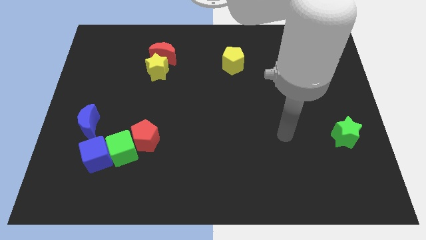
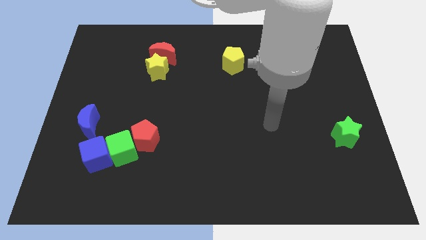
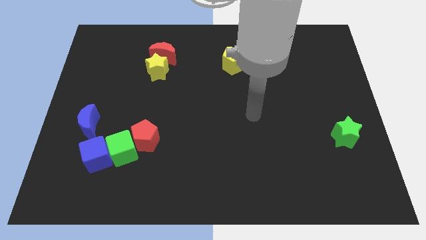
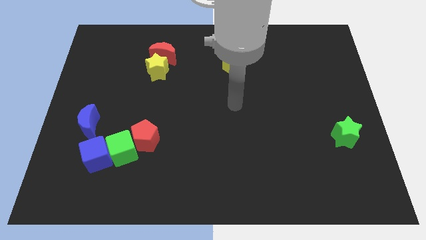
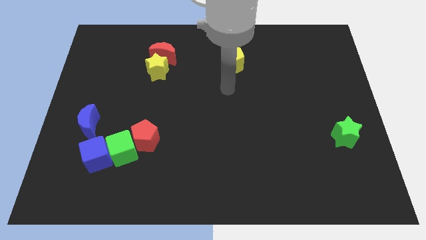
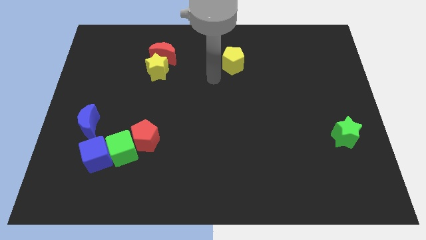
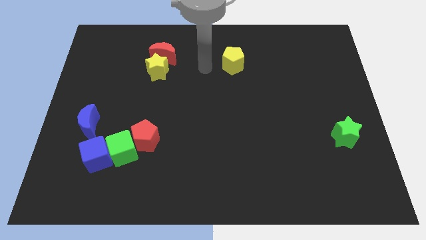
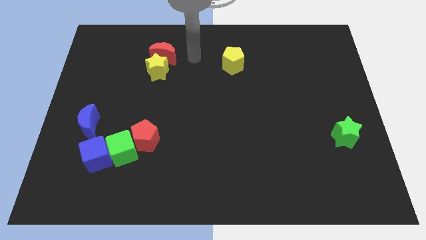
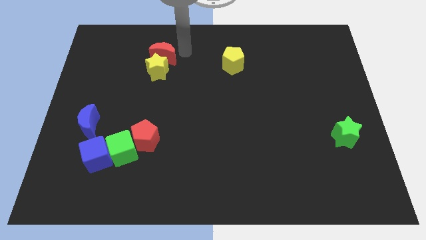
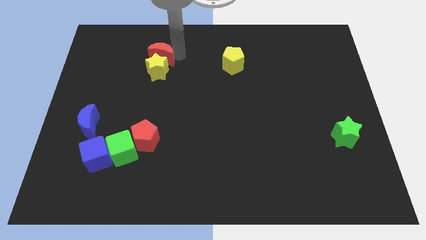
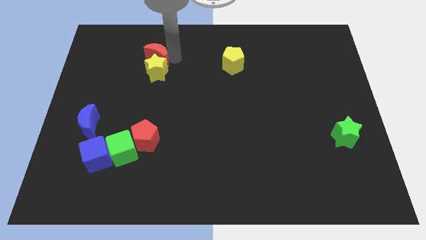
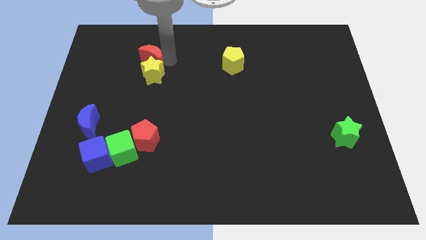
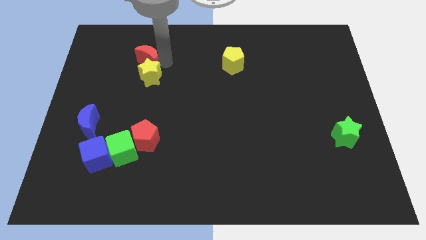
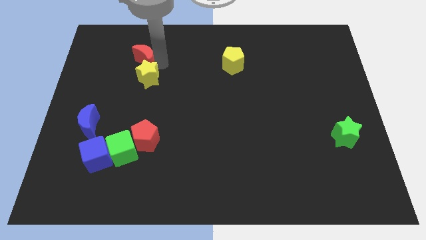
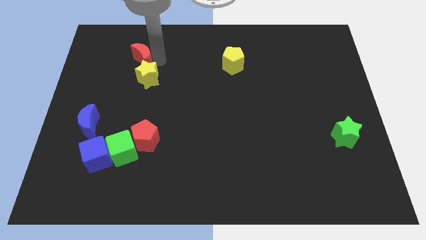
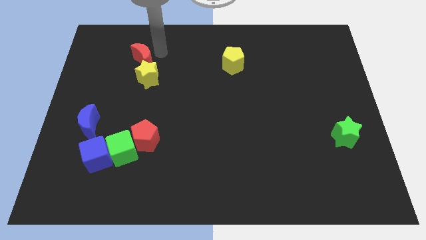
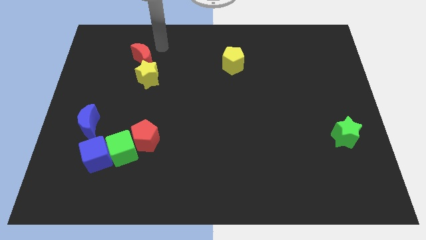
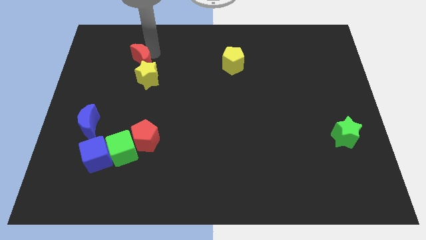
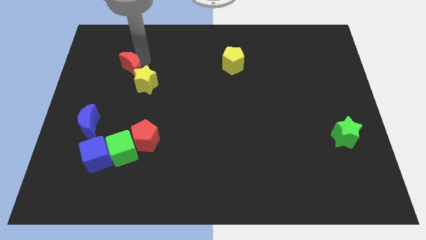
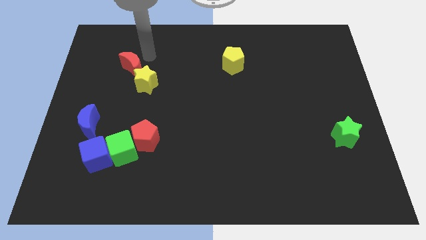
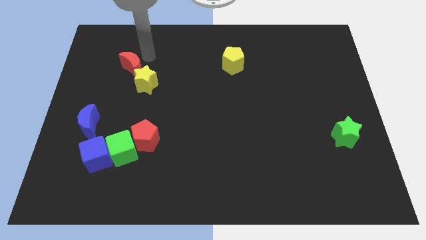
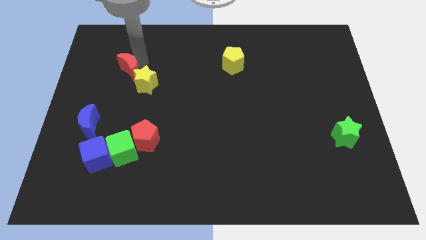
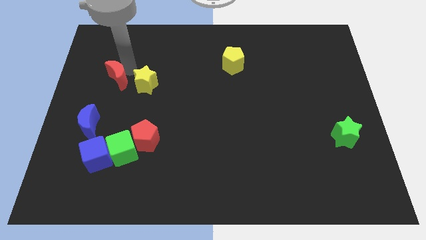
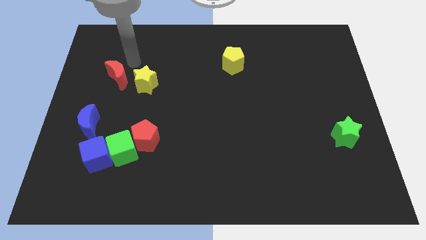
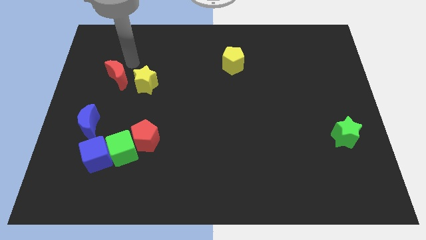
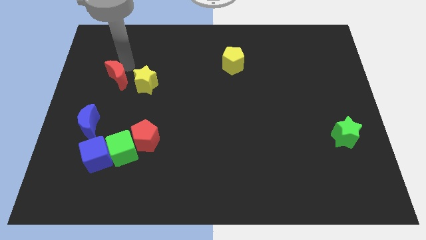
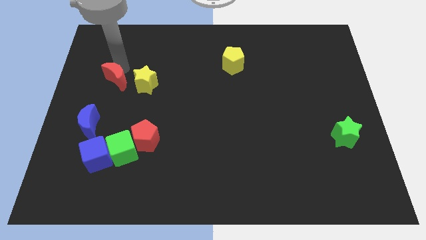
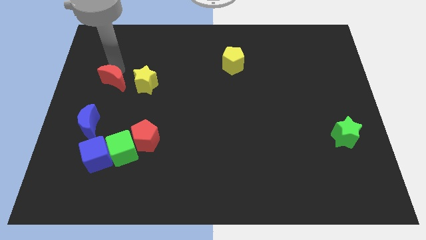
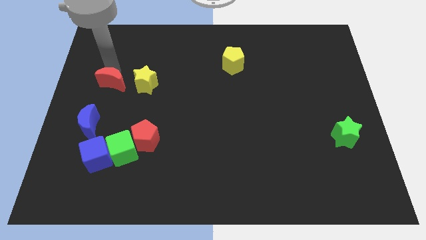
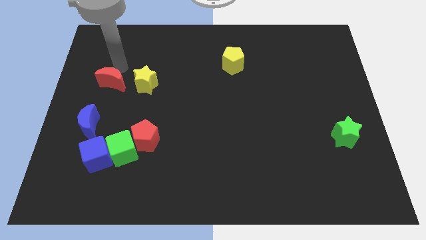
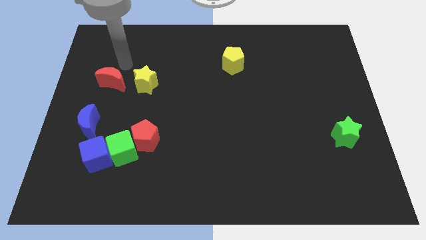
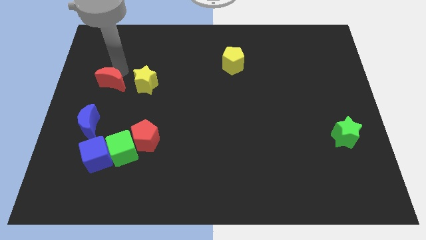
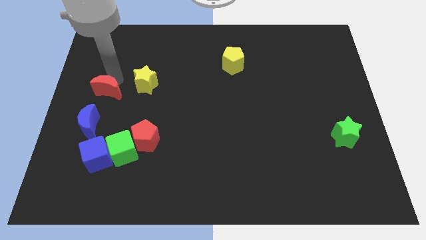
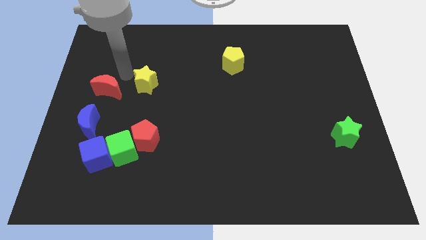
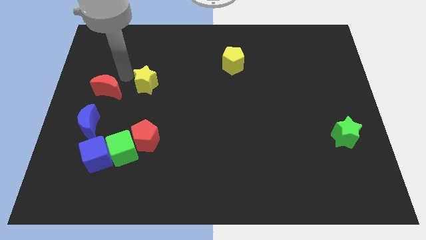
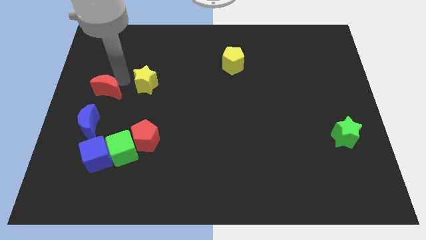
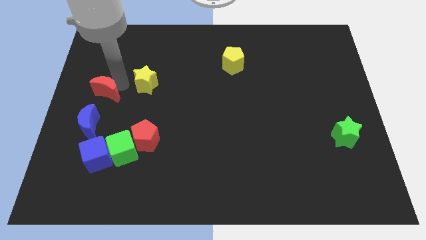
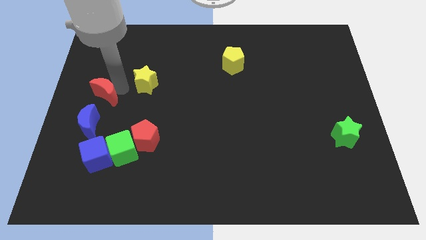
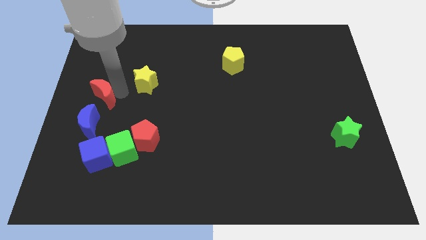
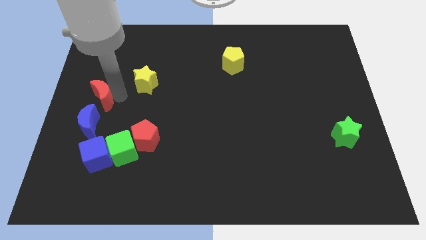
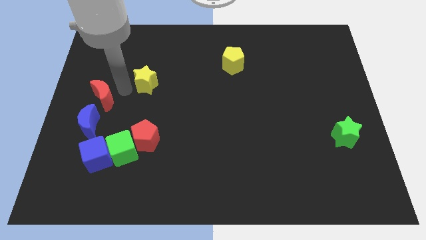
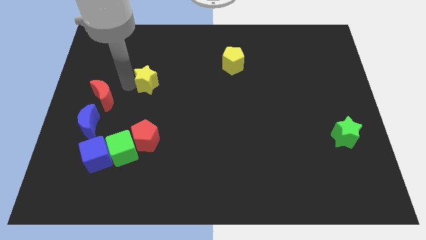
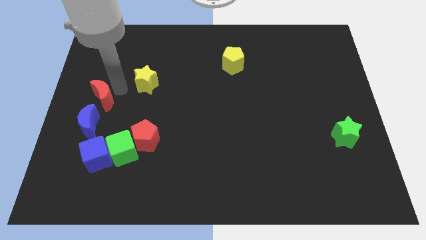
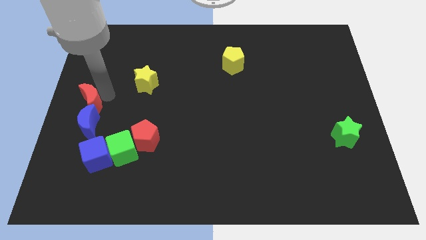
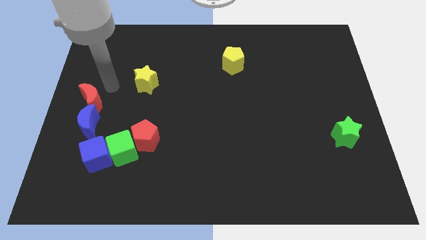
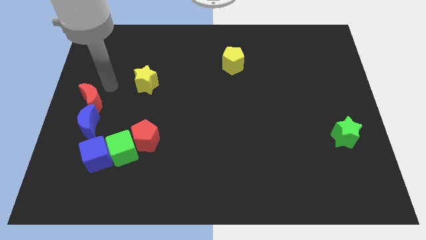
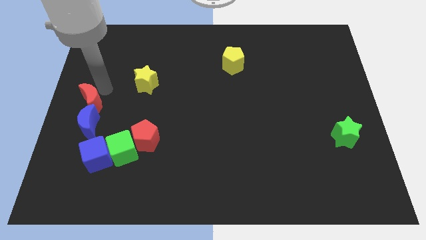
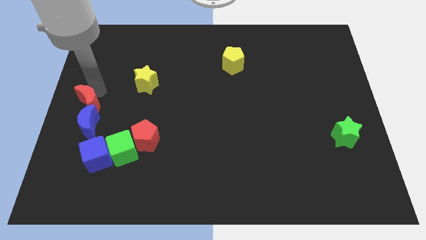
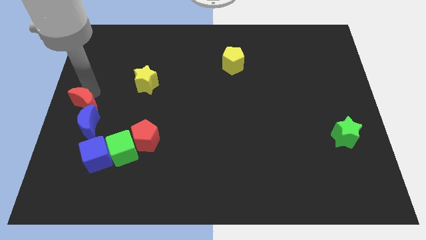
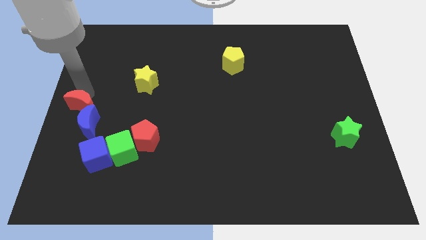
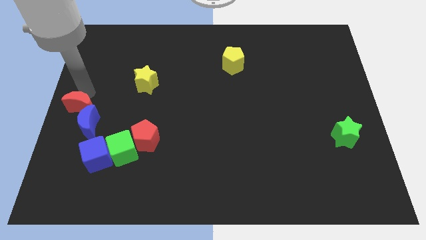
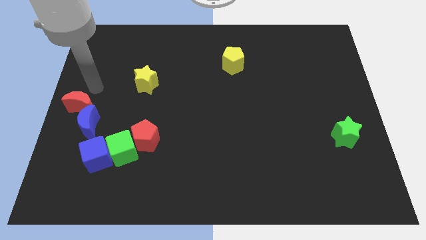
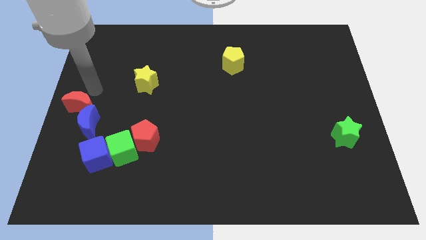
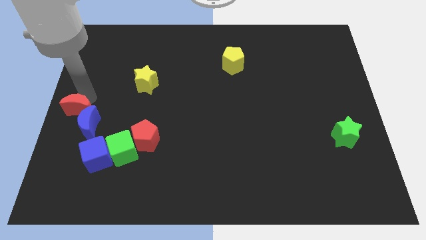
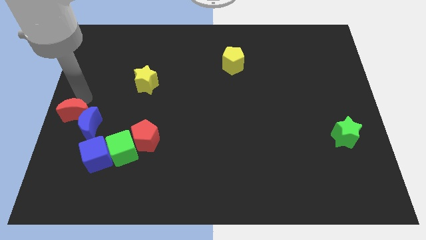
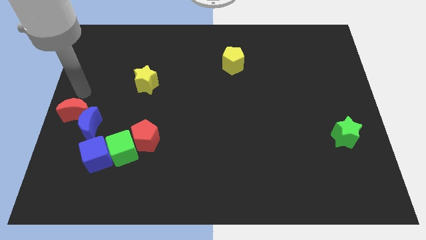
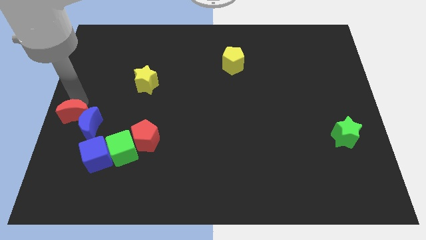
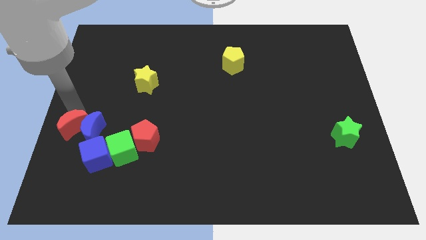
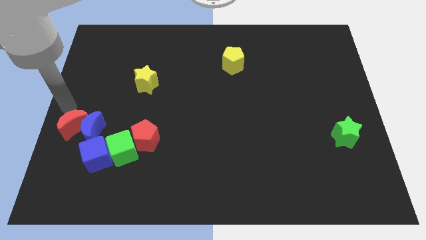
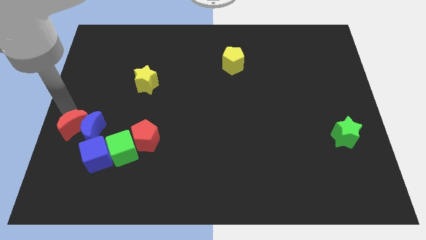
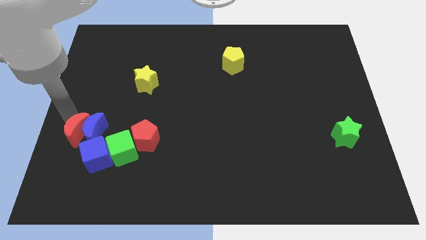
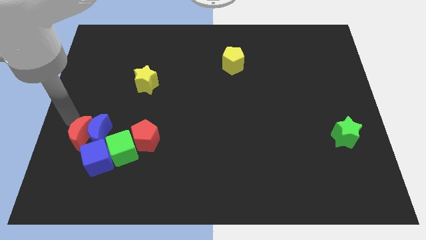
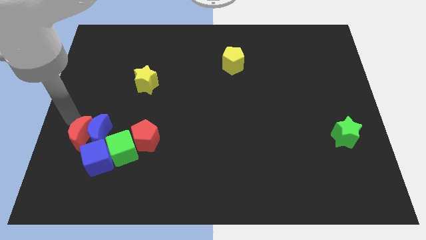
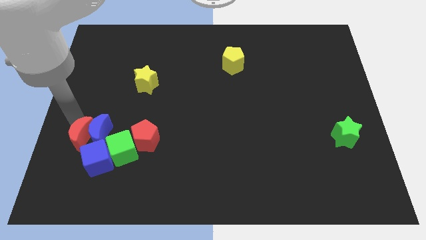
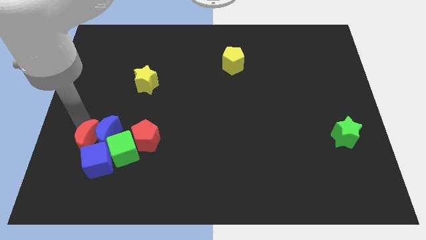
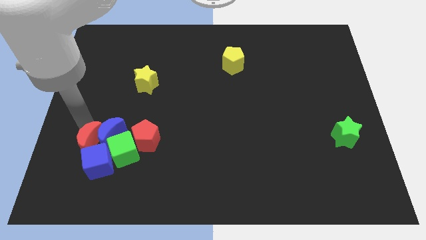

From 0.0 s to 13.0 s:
push the red moon close to the blue cube

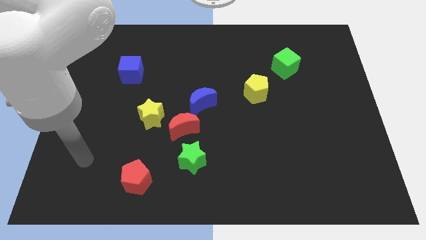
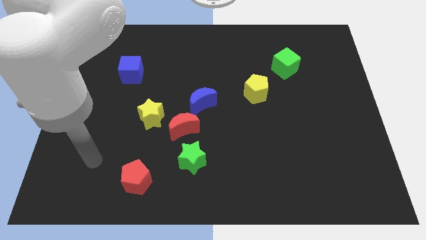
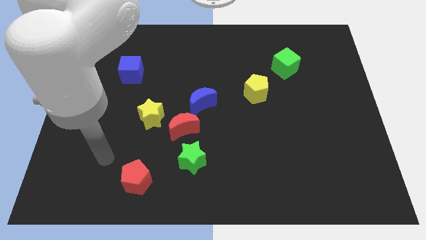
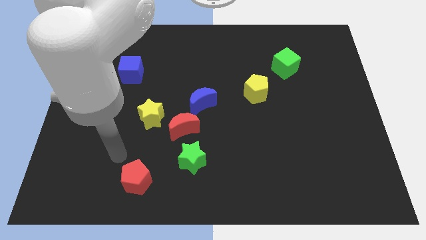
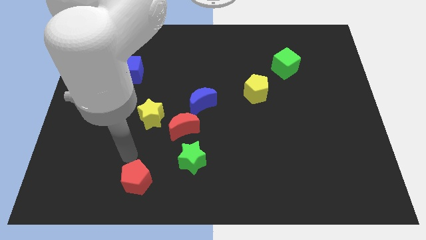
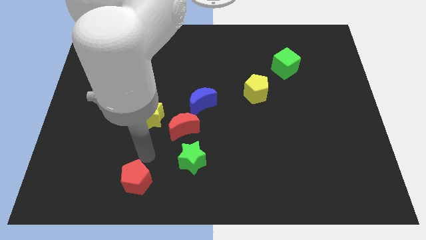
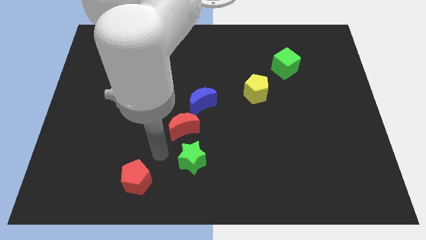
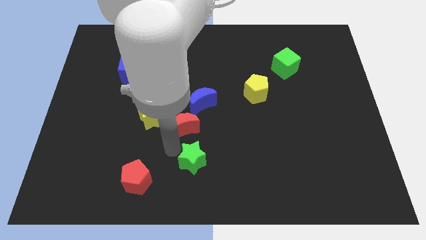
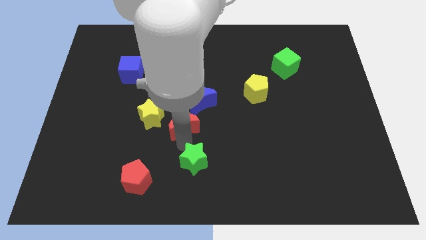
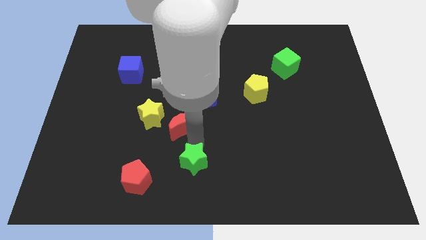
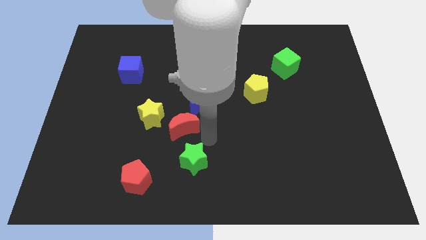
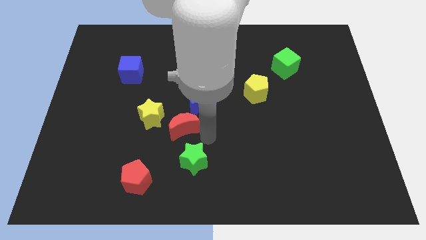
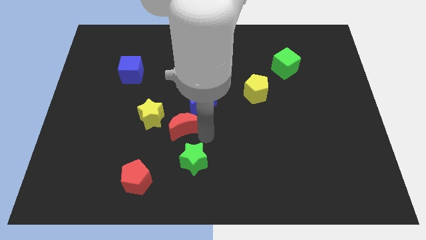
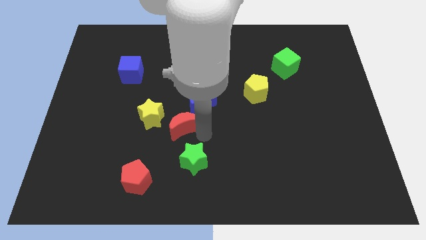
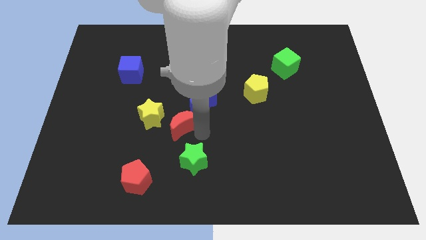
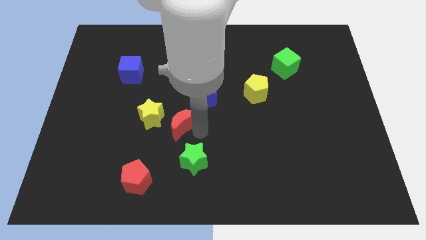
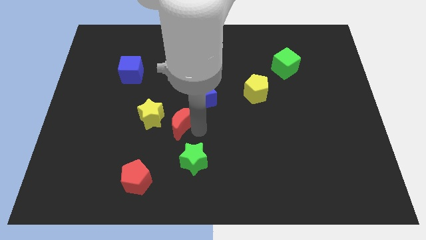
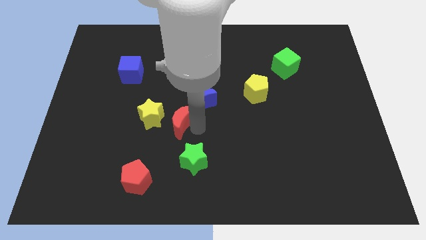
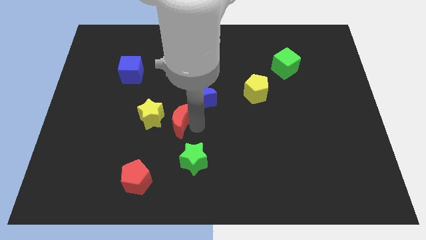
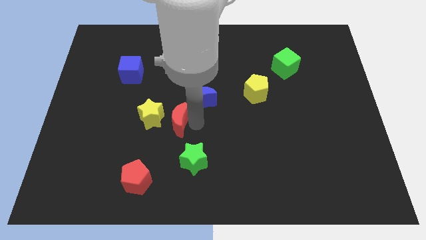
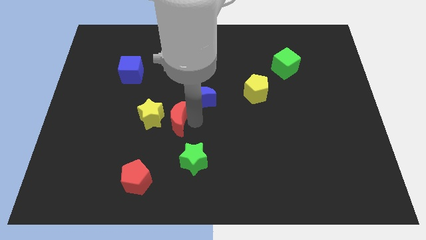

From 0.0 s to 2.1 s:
move the red moon next to the yellow star
